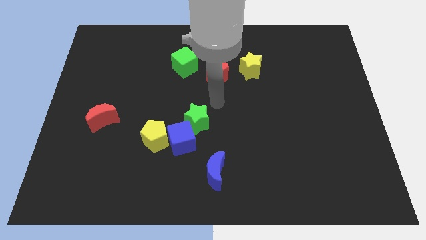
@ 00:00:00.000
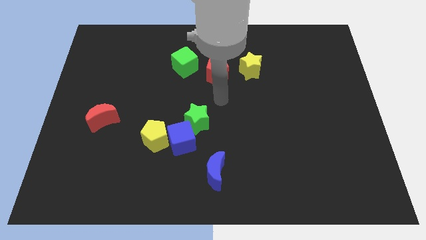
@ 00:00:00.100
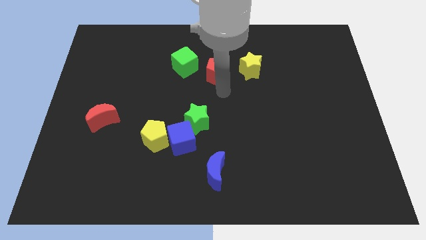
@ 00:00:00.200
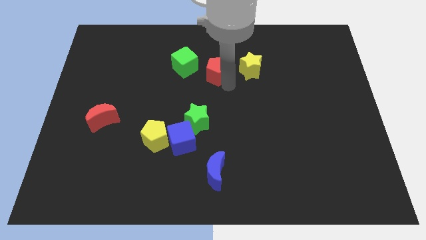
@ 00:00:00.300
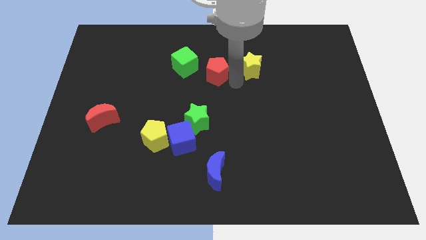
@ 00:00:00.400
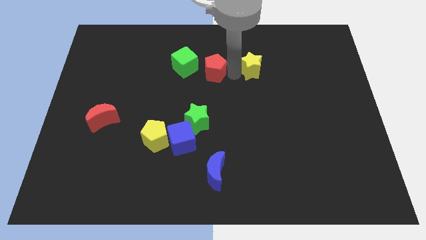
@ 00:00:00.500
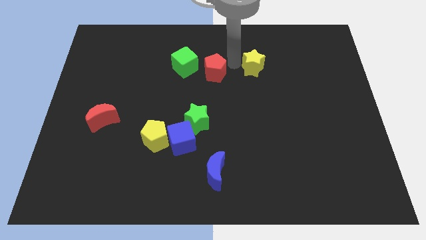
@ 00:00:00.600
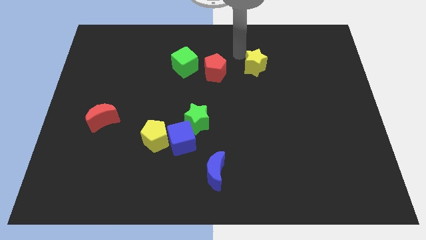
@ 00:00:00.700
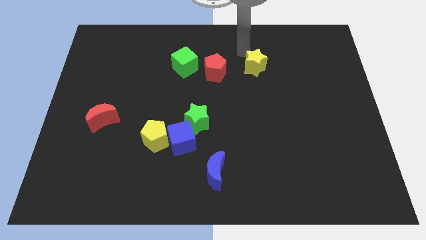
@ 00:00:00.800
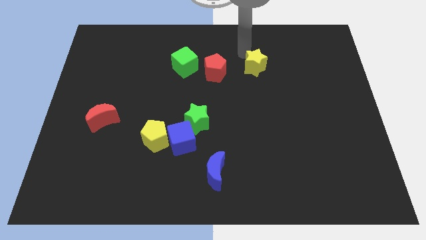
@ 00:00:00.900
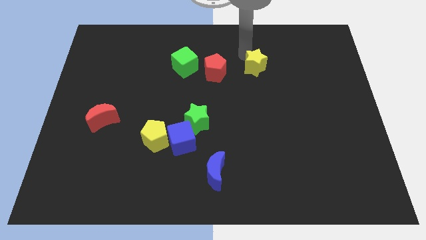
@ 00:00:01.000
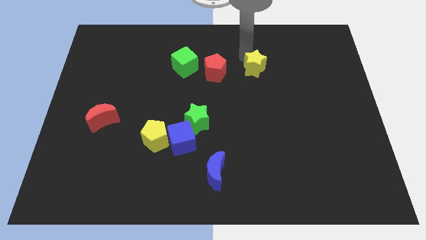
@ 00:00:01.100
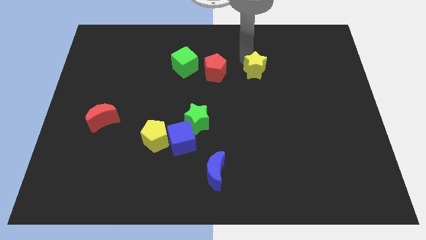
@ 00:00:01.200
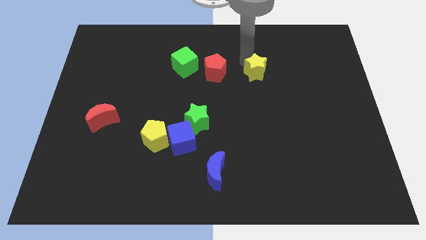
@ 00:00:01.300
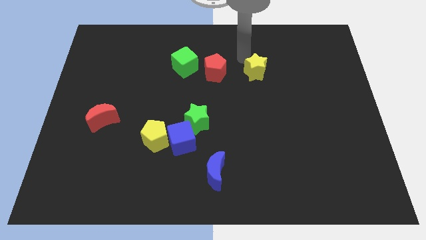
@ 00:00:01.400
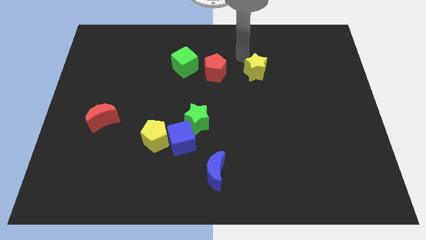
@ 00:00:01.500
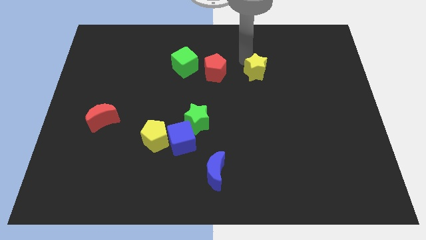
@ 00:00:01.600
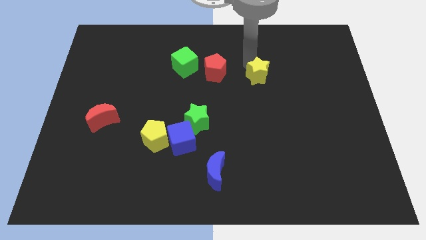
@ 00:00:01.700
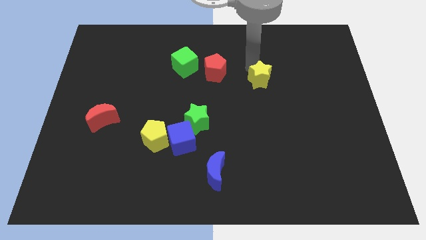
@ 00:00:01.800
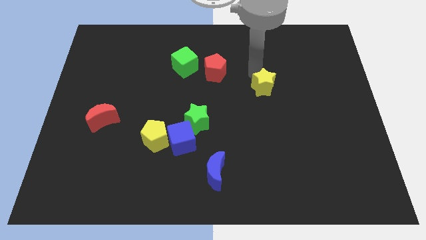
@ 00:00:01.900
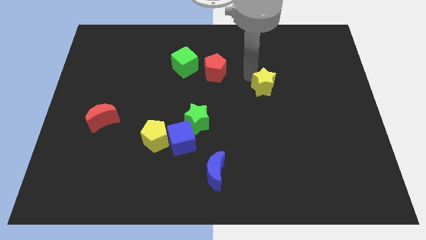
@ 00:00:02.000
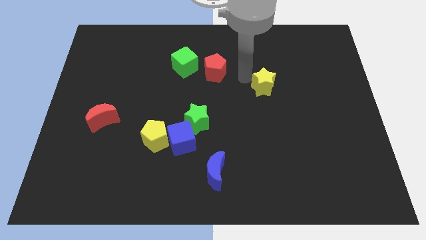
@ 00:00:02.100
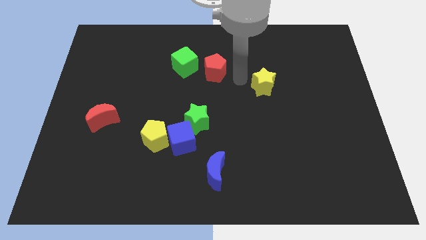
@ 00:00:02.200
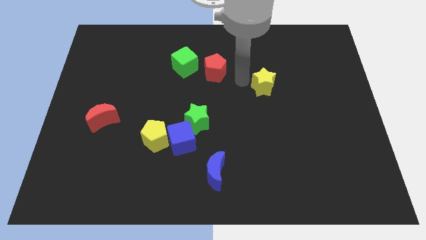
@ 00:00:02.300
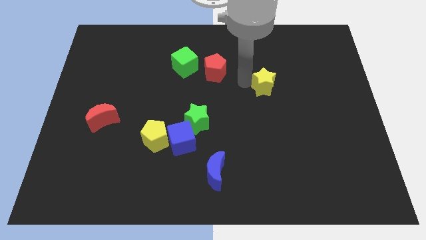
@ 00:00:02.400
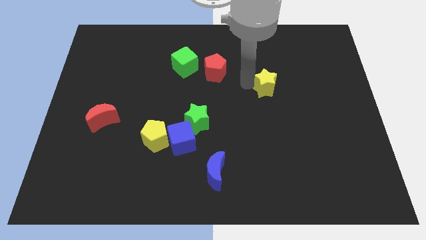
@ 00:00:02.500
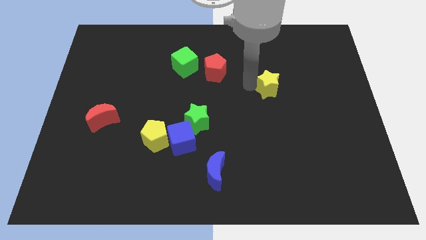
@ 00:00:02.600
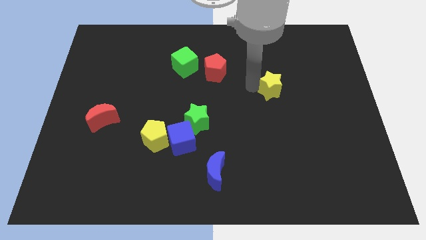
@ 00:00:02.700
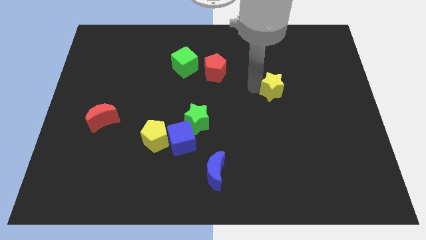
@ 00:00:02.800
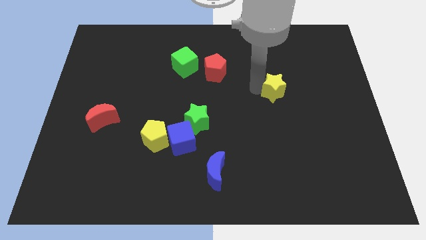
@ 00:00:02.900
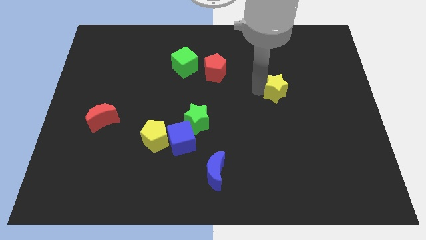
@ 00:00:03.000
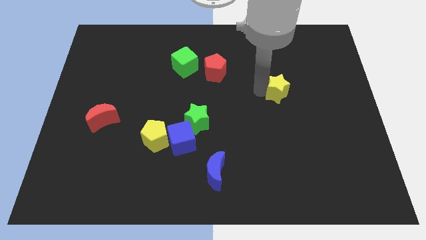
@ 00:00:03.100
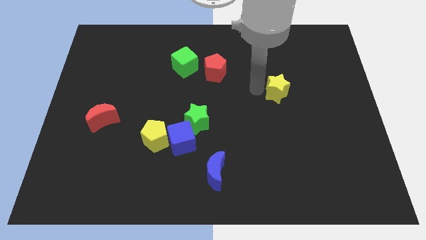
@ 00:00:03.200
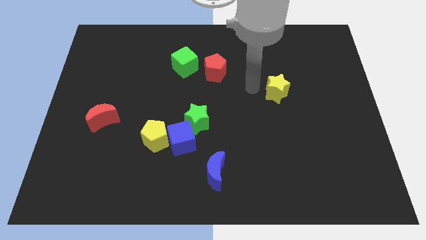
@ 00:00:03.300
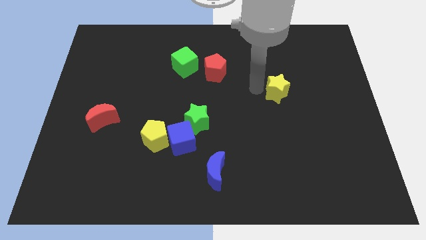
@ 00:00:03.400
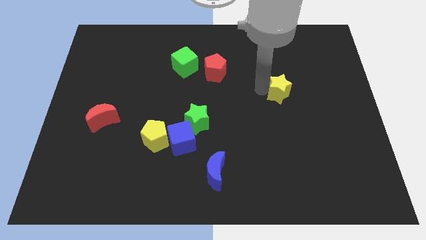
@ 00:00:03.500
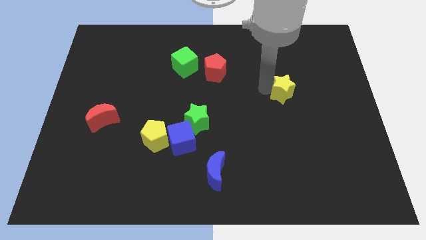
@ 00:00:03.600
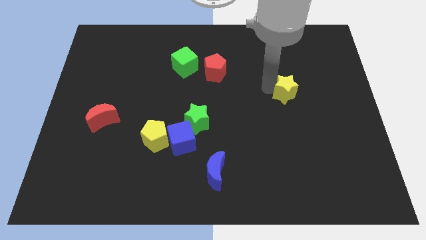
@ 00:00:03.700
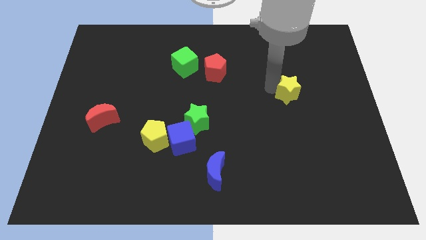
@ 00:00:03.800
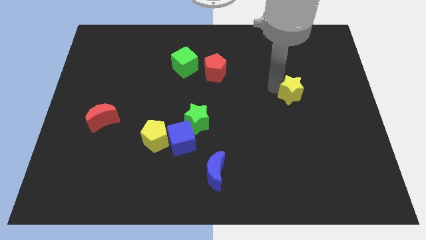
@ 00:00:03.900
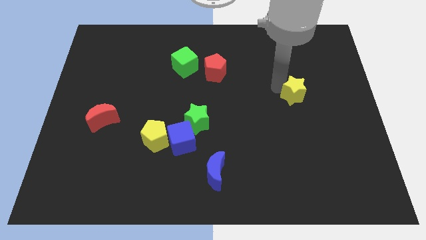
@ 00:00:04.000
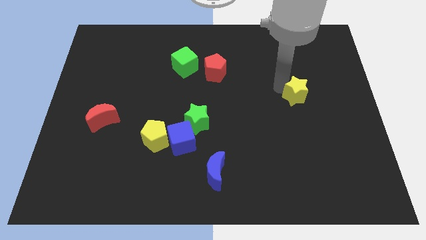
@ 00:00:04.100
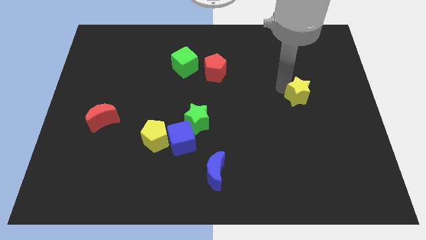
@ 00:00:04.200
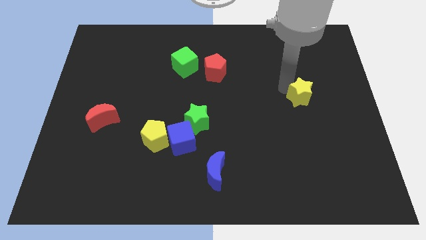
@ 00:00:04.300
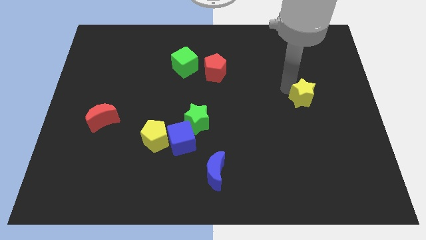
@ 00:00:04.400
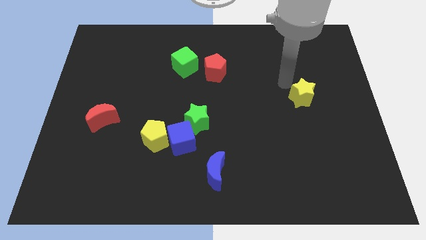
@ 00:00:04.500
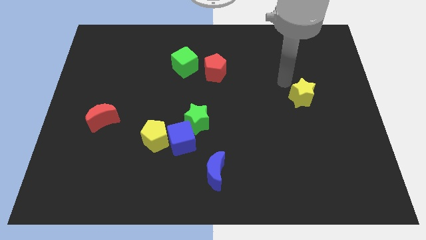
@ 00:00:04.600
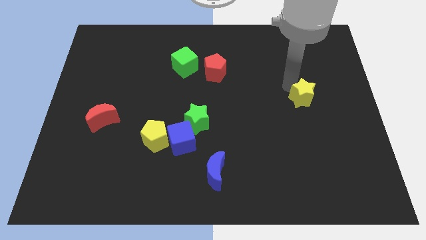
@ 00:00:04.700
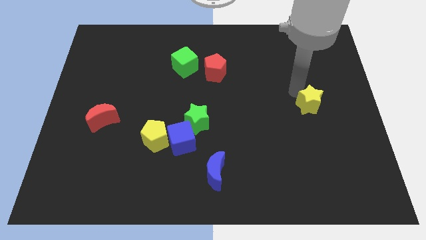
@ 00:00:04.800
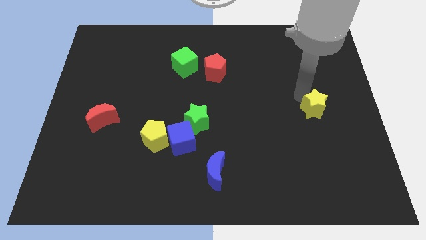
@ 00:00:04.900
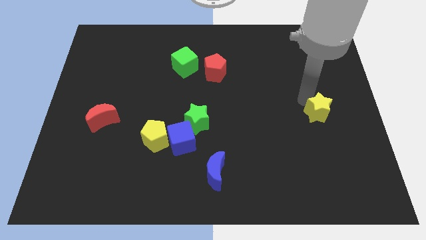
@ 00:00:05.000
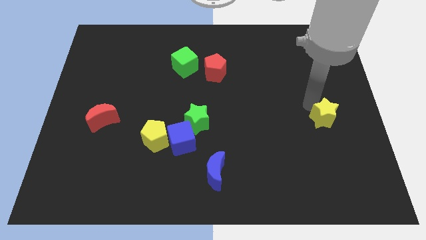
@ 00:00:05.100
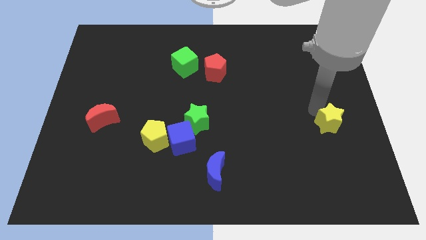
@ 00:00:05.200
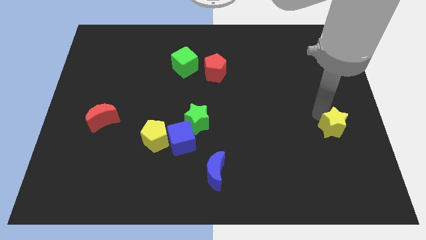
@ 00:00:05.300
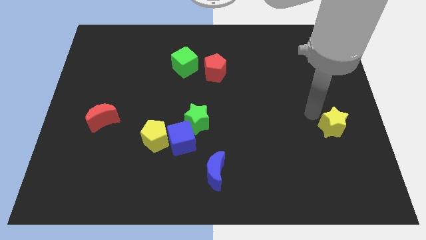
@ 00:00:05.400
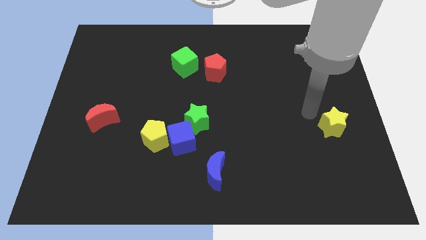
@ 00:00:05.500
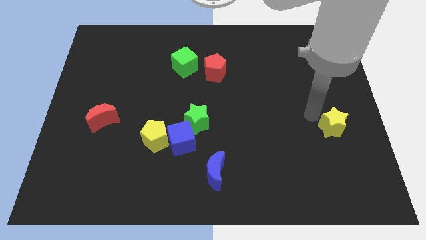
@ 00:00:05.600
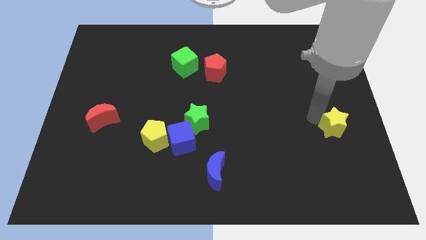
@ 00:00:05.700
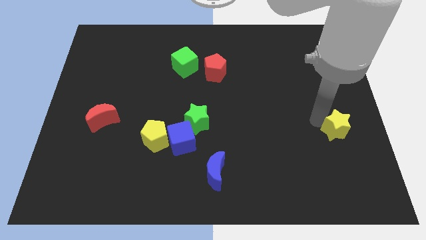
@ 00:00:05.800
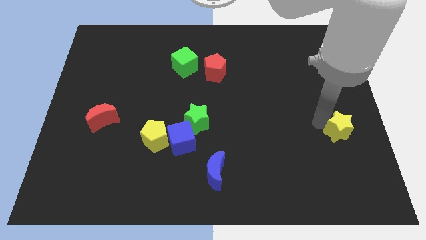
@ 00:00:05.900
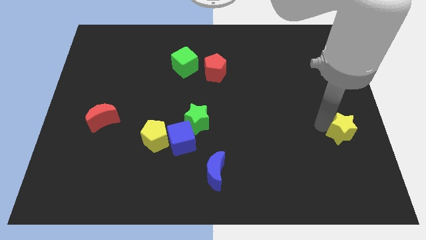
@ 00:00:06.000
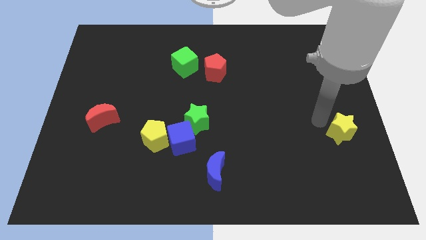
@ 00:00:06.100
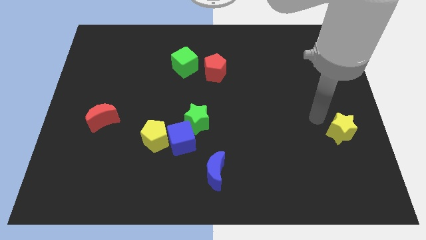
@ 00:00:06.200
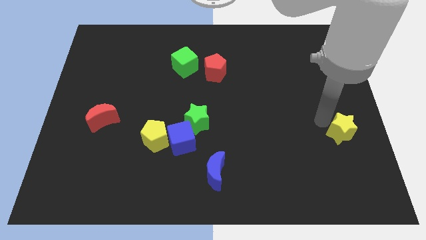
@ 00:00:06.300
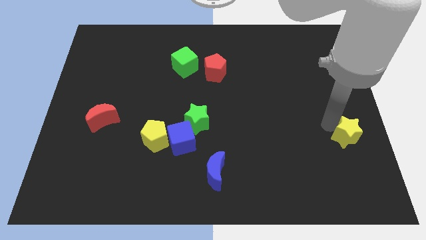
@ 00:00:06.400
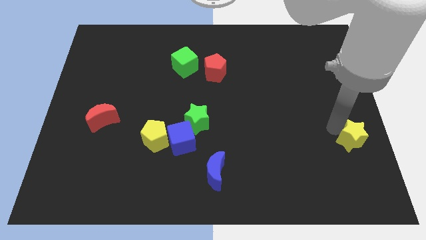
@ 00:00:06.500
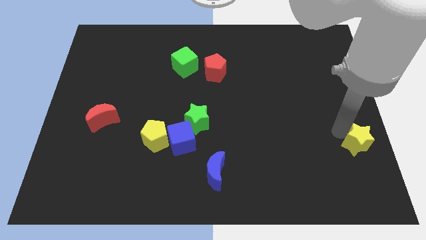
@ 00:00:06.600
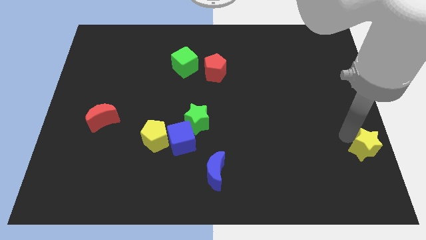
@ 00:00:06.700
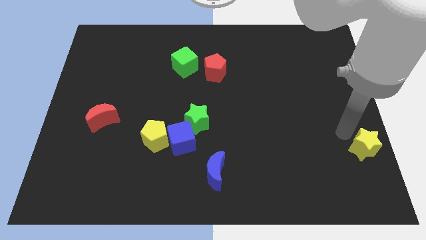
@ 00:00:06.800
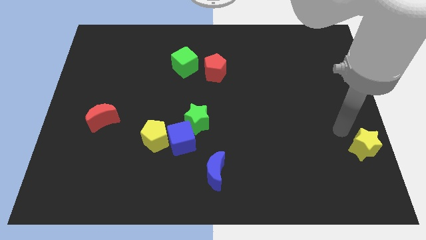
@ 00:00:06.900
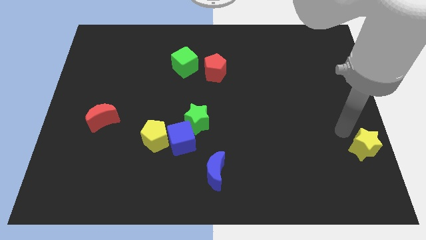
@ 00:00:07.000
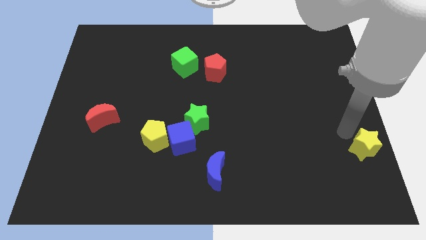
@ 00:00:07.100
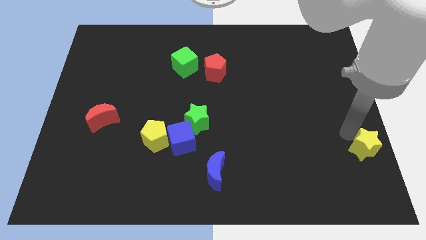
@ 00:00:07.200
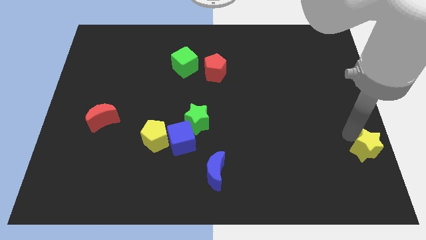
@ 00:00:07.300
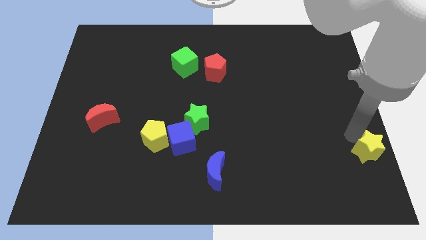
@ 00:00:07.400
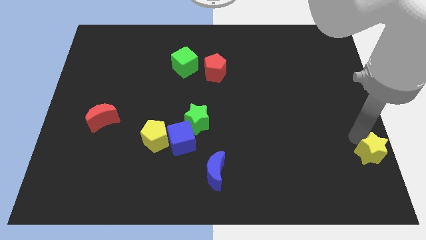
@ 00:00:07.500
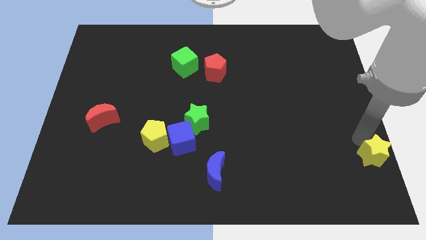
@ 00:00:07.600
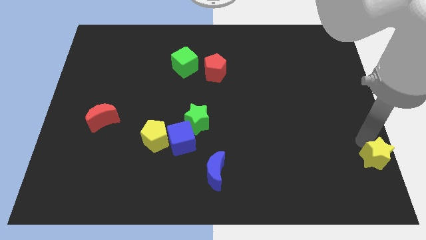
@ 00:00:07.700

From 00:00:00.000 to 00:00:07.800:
push the yellow star to the bottom right corner
